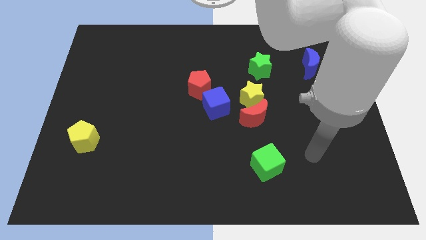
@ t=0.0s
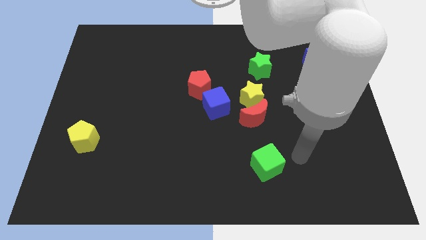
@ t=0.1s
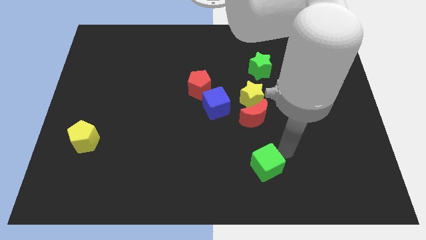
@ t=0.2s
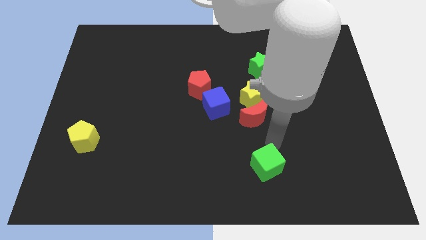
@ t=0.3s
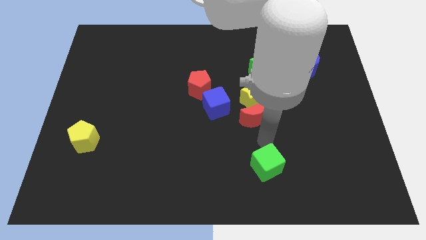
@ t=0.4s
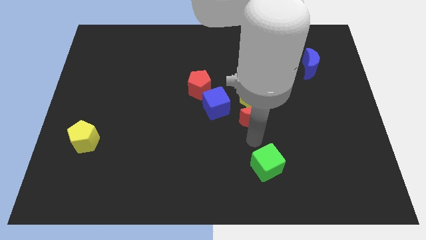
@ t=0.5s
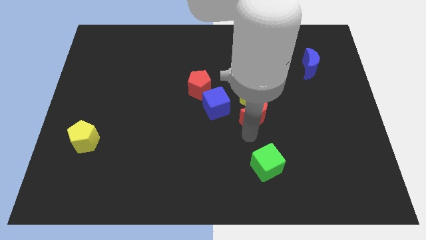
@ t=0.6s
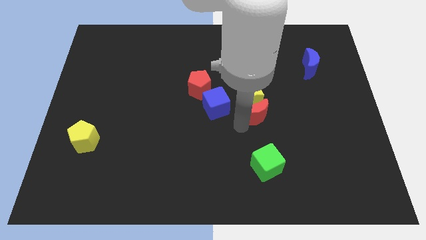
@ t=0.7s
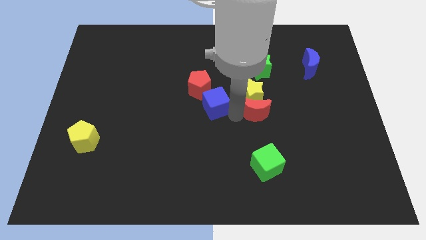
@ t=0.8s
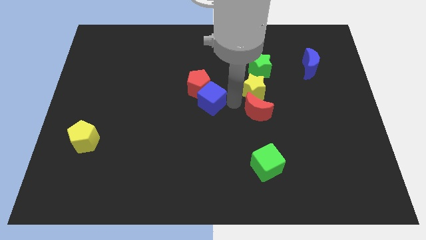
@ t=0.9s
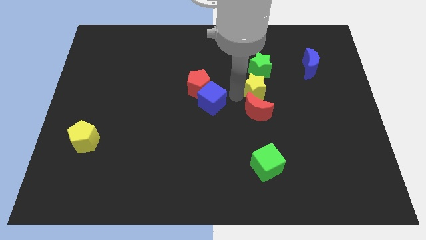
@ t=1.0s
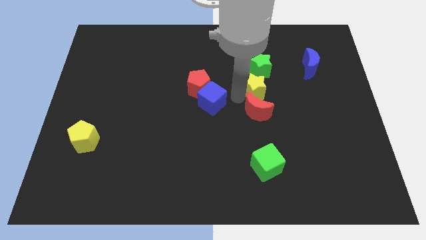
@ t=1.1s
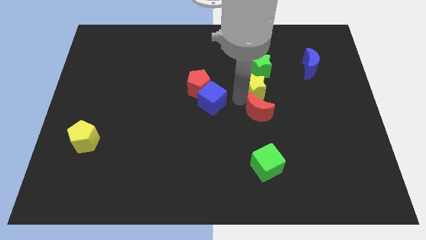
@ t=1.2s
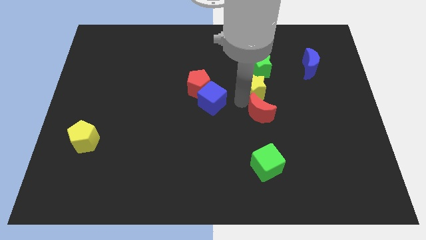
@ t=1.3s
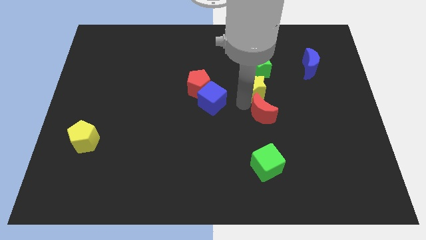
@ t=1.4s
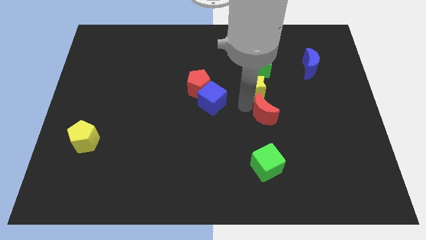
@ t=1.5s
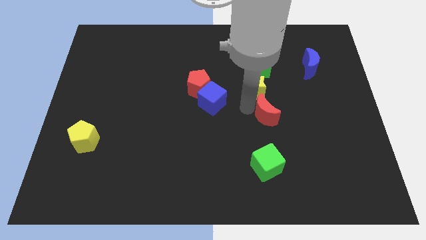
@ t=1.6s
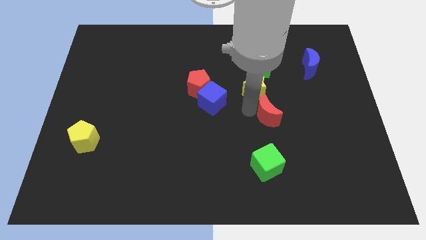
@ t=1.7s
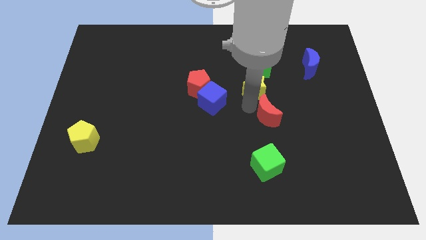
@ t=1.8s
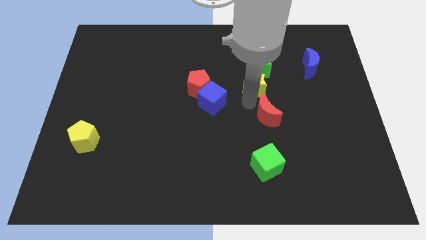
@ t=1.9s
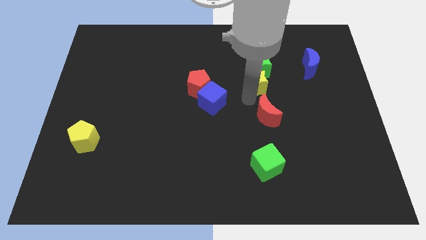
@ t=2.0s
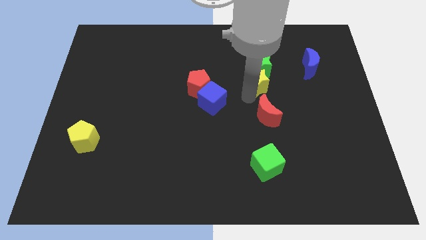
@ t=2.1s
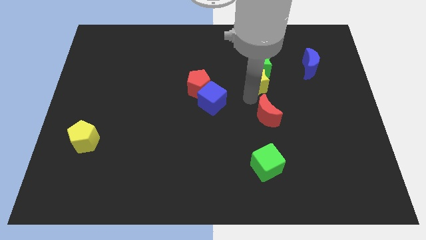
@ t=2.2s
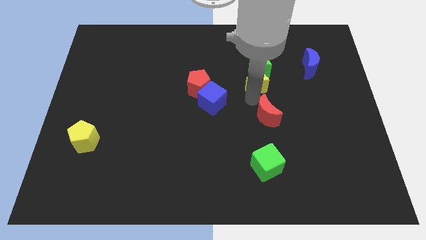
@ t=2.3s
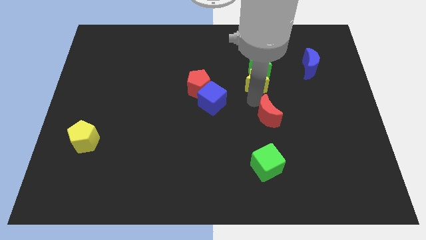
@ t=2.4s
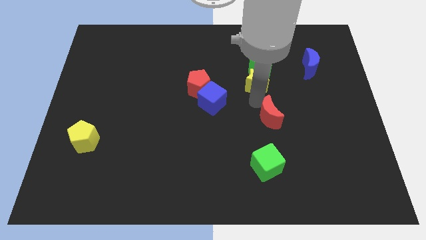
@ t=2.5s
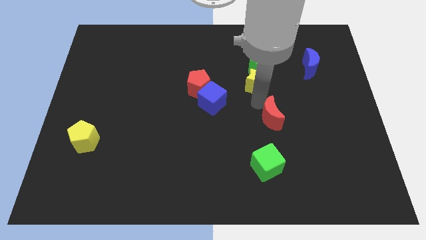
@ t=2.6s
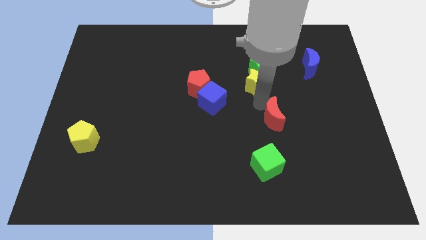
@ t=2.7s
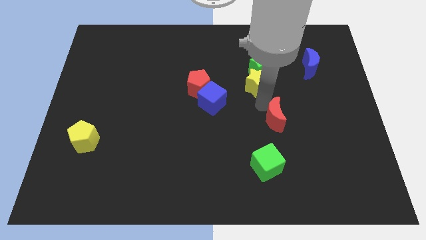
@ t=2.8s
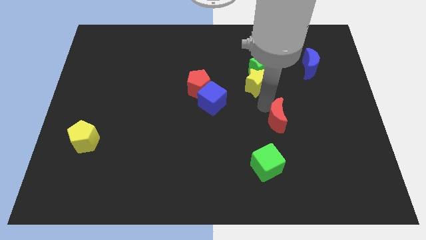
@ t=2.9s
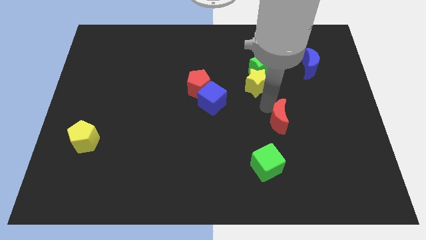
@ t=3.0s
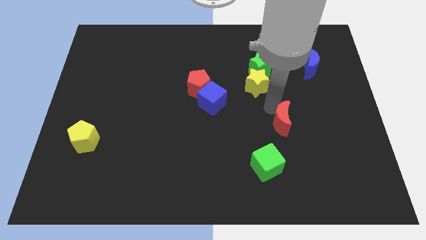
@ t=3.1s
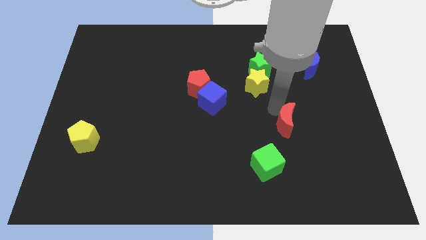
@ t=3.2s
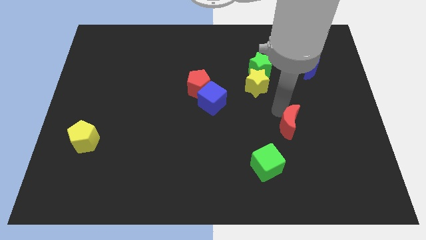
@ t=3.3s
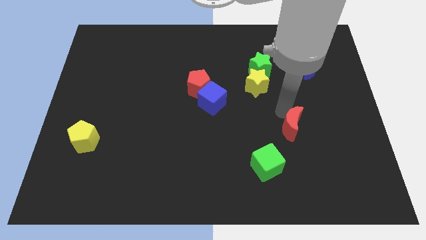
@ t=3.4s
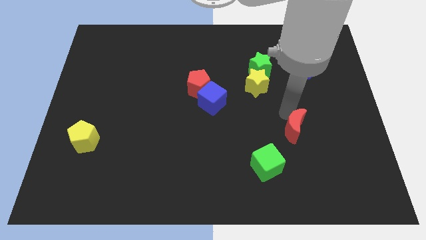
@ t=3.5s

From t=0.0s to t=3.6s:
push the red moon a bit diagonally down and to the right

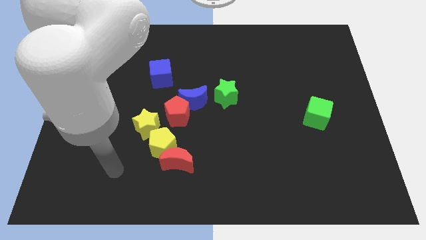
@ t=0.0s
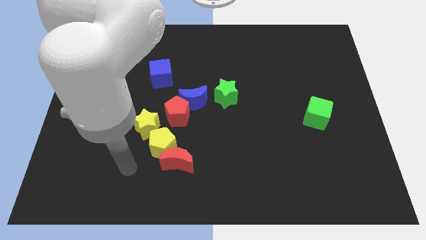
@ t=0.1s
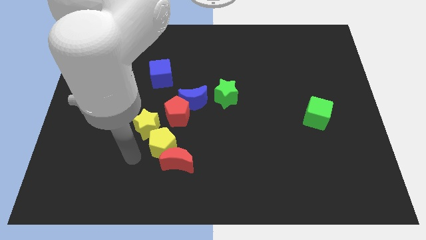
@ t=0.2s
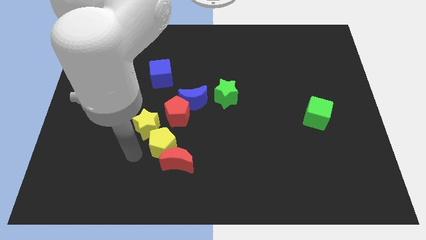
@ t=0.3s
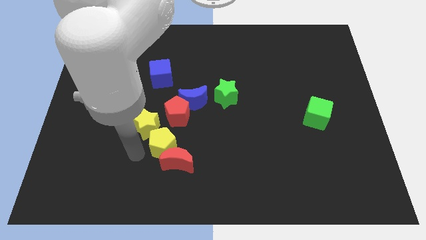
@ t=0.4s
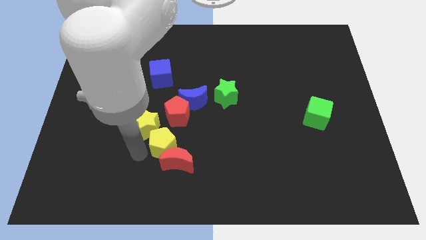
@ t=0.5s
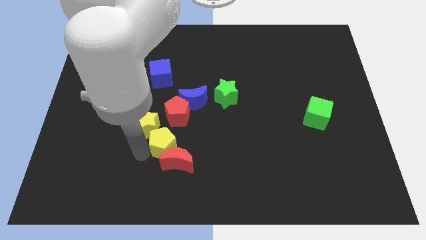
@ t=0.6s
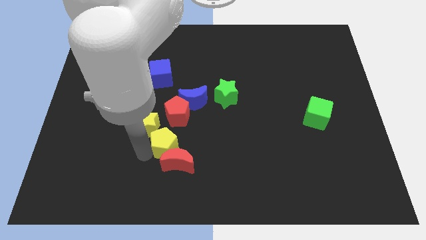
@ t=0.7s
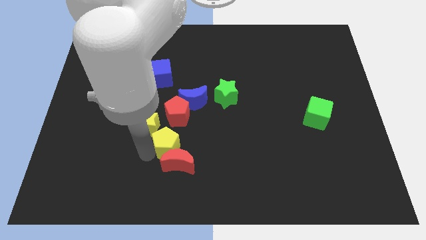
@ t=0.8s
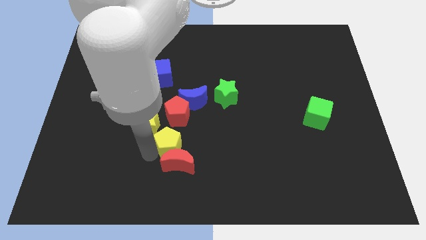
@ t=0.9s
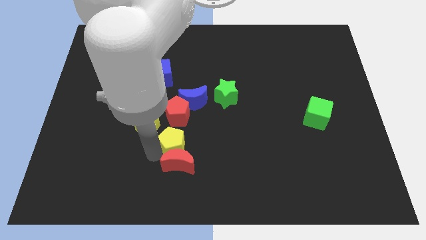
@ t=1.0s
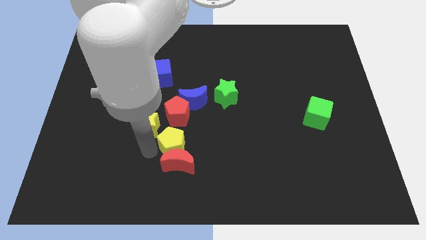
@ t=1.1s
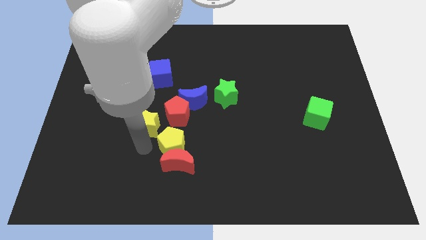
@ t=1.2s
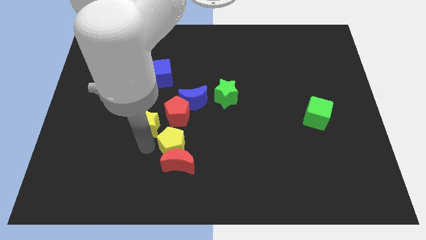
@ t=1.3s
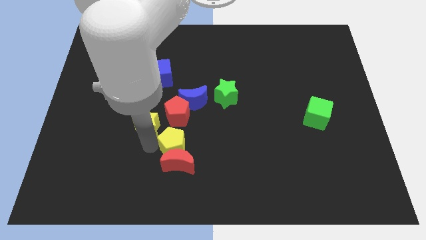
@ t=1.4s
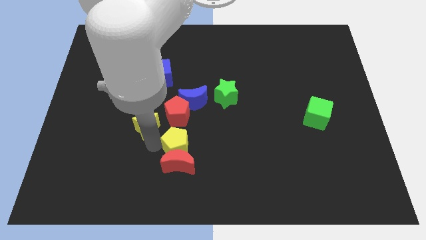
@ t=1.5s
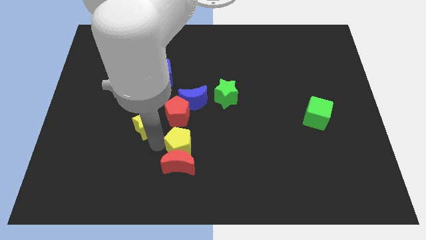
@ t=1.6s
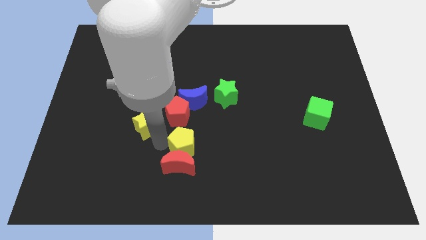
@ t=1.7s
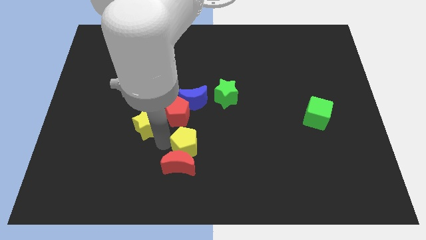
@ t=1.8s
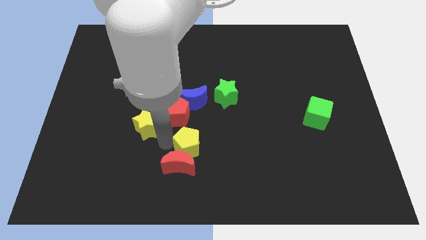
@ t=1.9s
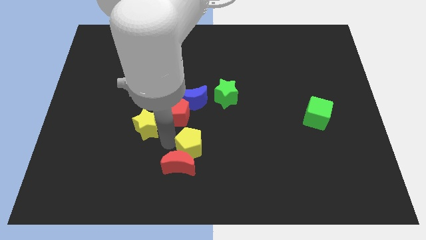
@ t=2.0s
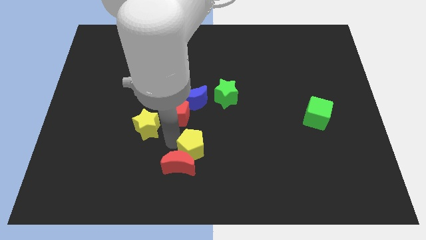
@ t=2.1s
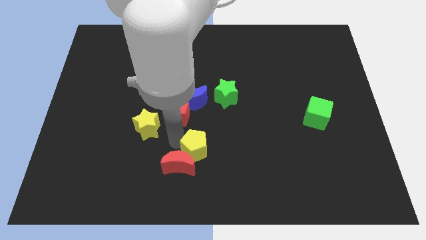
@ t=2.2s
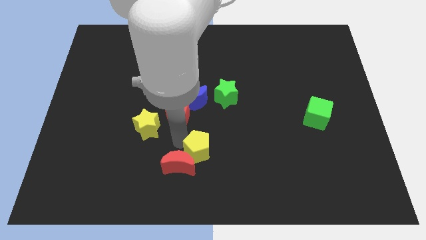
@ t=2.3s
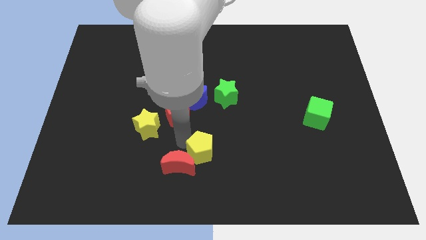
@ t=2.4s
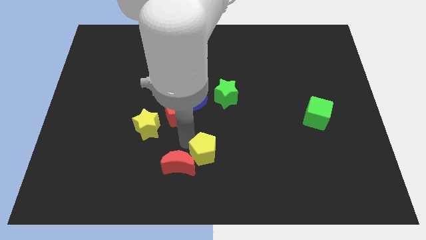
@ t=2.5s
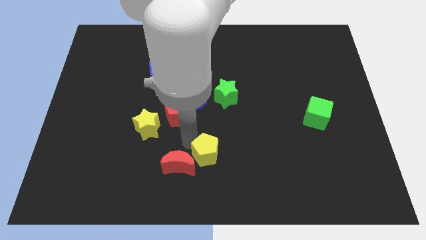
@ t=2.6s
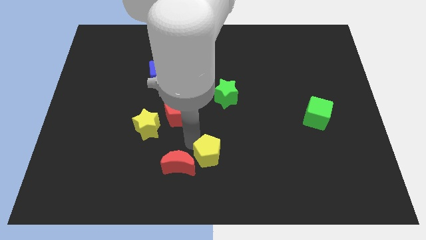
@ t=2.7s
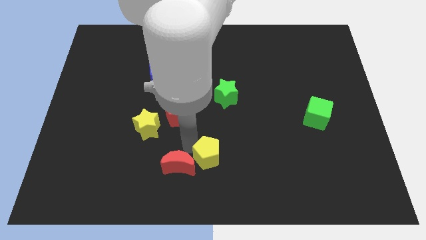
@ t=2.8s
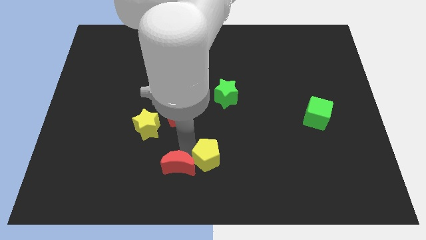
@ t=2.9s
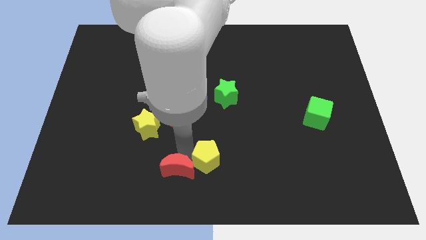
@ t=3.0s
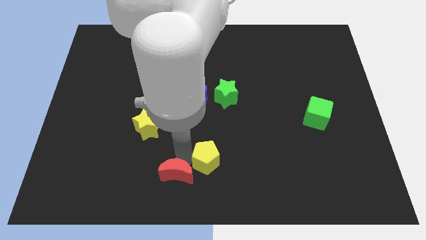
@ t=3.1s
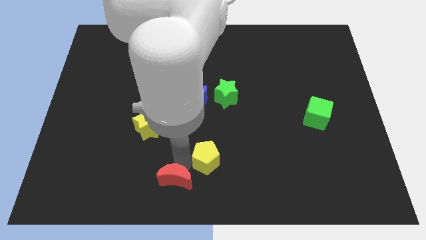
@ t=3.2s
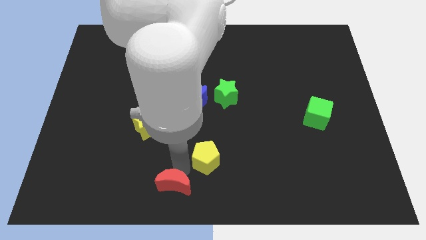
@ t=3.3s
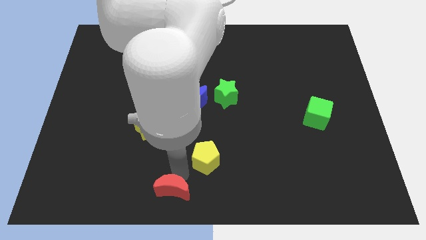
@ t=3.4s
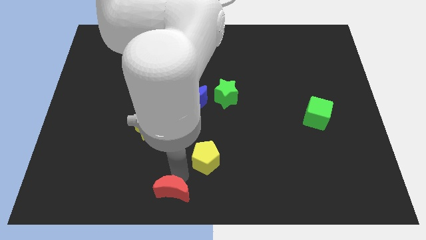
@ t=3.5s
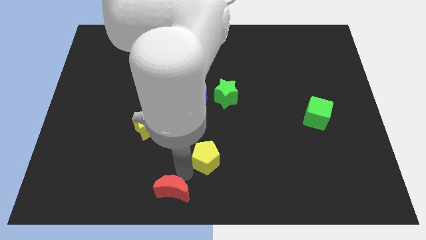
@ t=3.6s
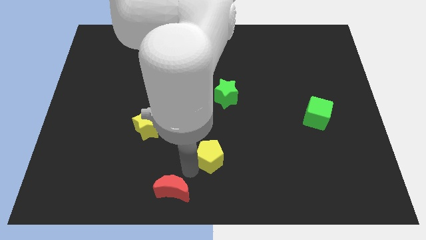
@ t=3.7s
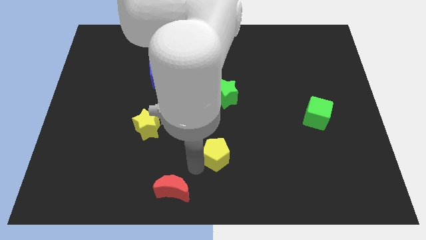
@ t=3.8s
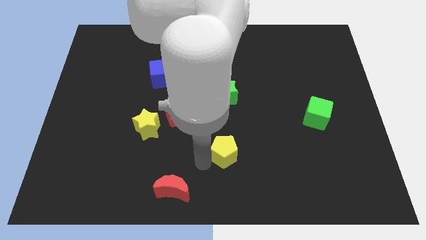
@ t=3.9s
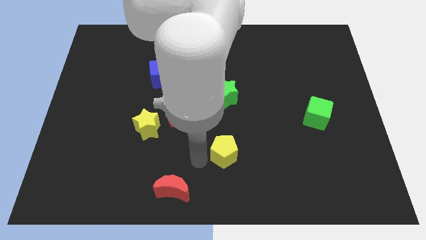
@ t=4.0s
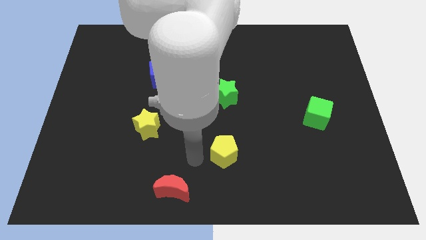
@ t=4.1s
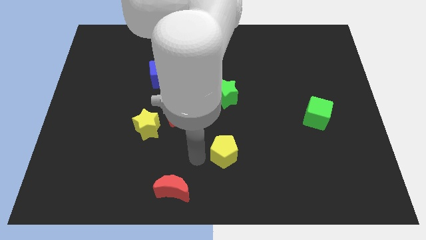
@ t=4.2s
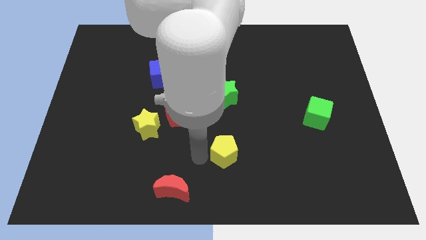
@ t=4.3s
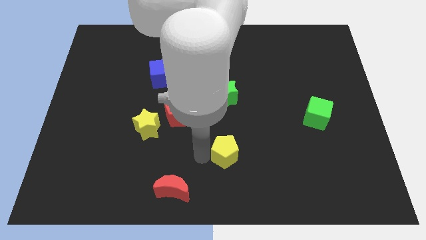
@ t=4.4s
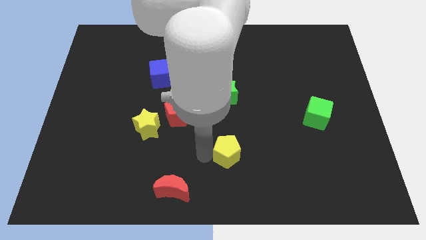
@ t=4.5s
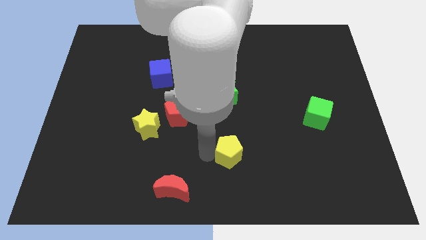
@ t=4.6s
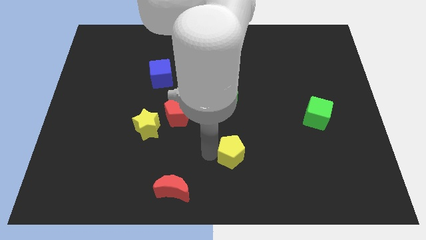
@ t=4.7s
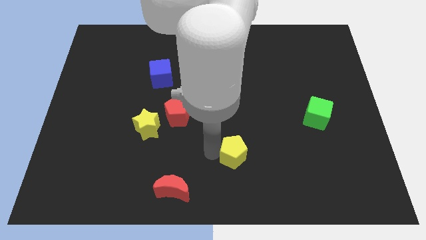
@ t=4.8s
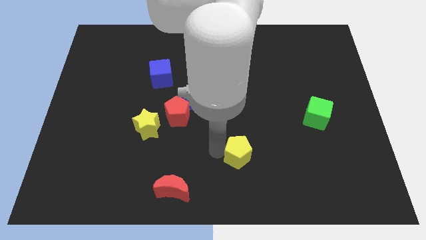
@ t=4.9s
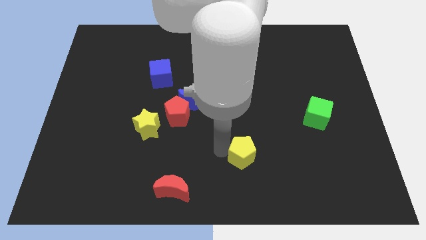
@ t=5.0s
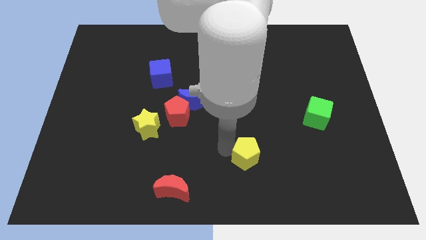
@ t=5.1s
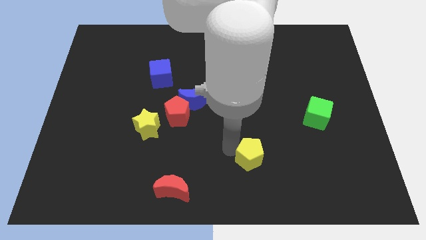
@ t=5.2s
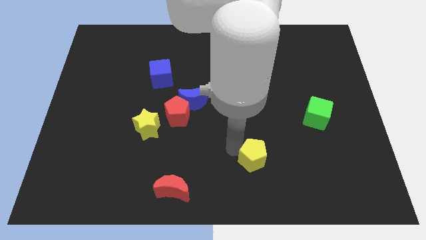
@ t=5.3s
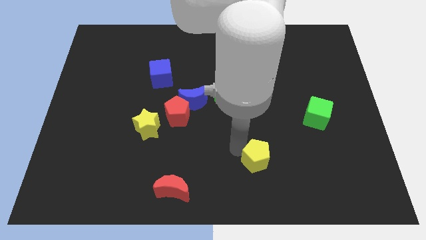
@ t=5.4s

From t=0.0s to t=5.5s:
move the yellow pentagon right
